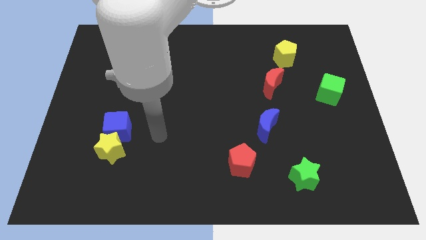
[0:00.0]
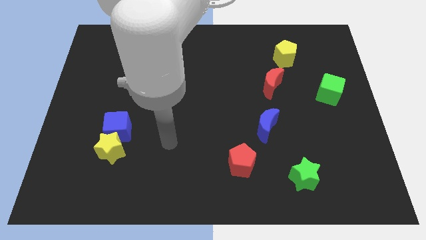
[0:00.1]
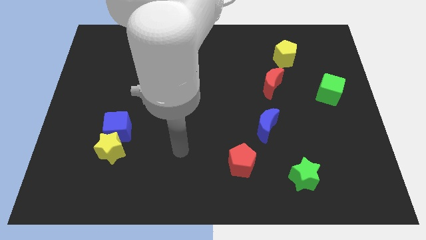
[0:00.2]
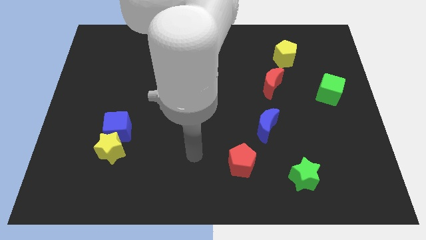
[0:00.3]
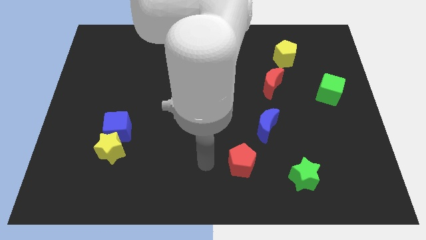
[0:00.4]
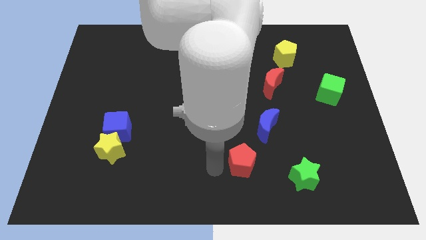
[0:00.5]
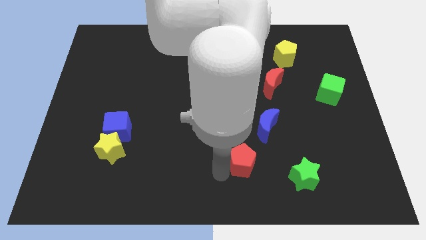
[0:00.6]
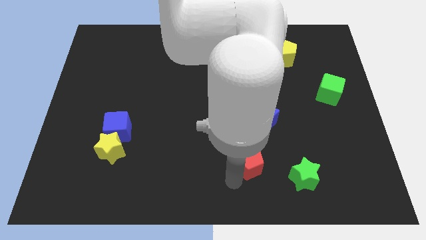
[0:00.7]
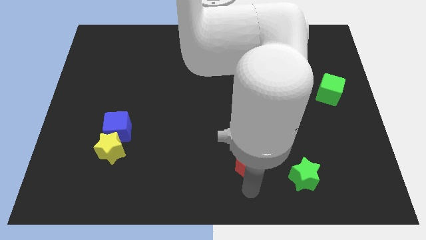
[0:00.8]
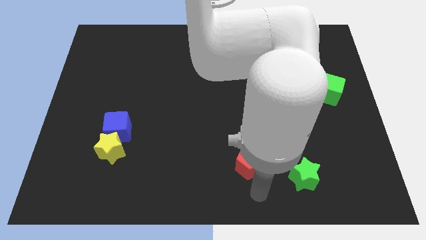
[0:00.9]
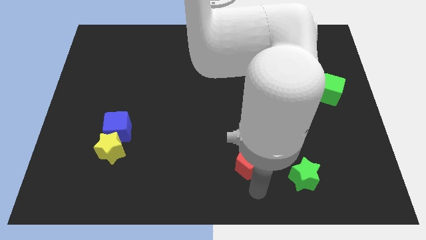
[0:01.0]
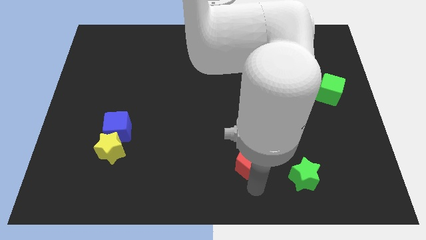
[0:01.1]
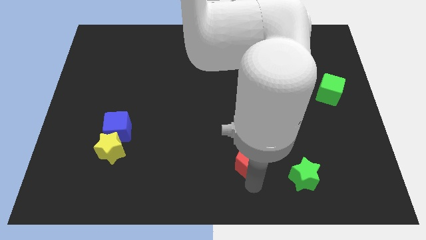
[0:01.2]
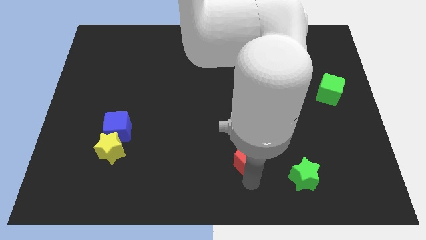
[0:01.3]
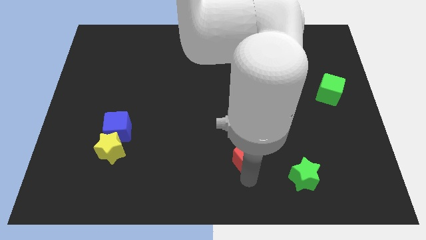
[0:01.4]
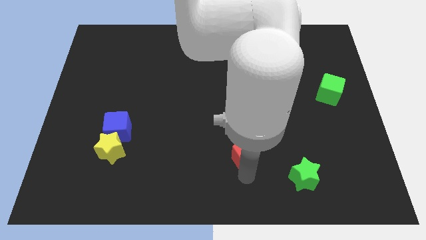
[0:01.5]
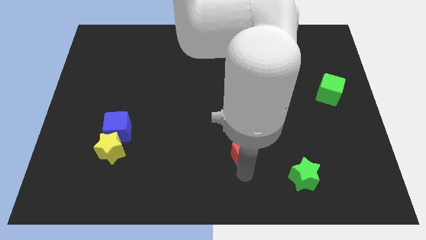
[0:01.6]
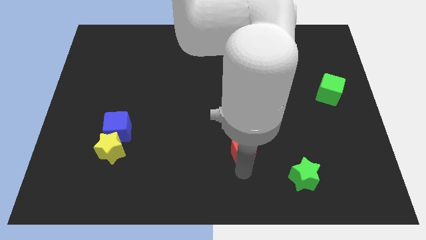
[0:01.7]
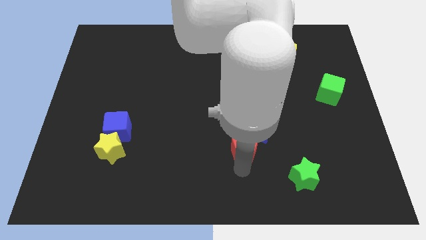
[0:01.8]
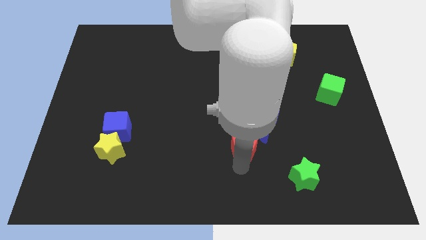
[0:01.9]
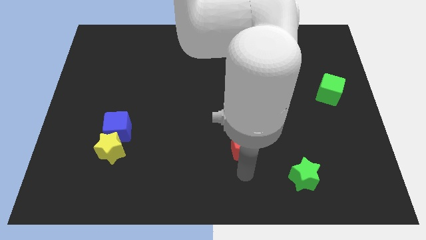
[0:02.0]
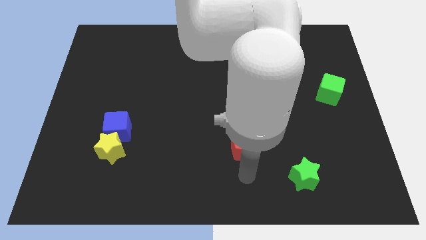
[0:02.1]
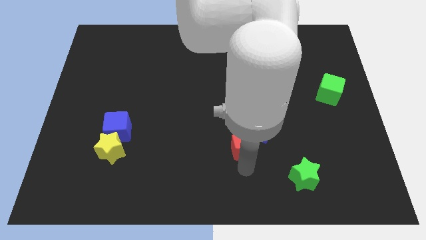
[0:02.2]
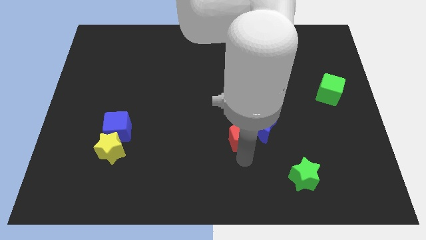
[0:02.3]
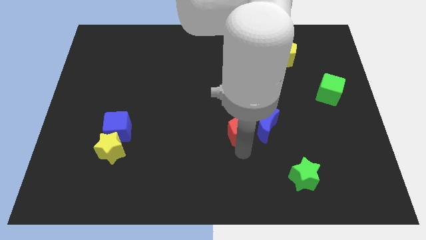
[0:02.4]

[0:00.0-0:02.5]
slide the red pentagon somewhat upwards

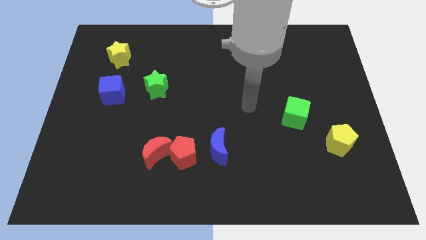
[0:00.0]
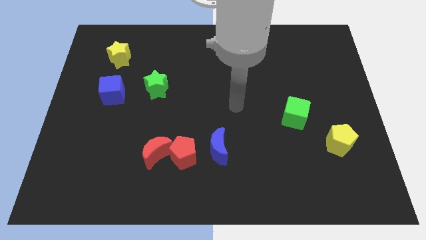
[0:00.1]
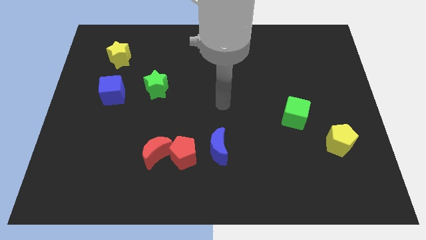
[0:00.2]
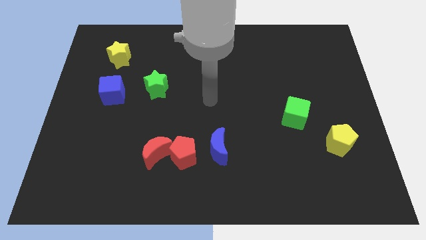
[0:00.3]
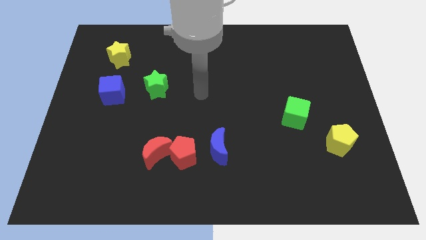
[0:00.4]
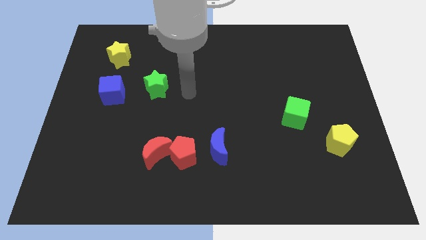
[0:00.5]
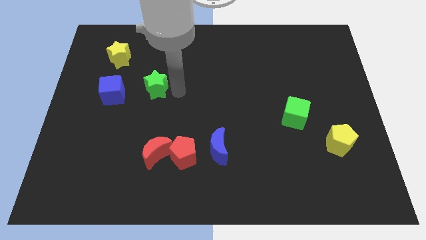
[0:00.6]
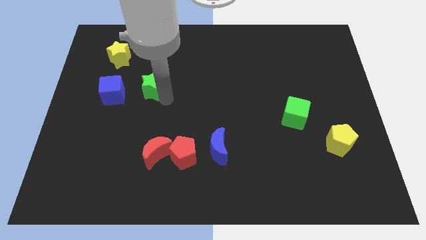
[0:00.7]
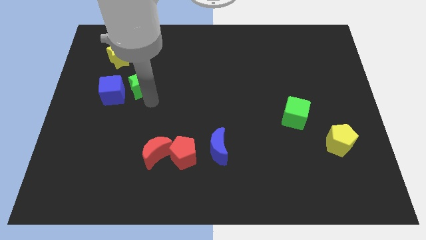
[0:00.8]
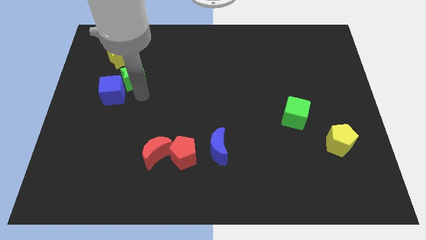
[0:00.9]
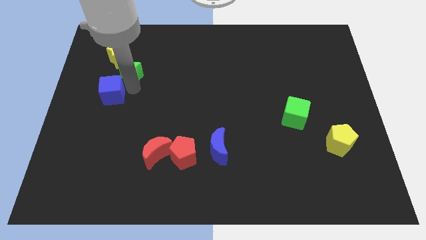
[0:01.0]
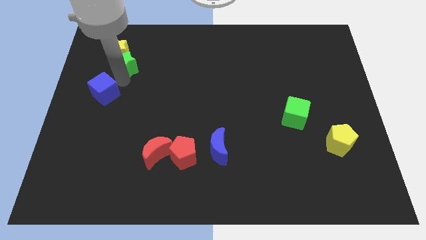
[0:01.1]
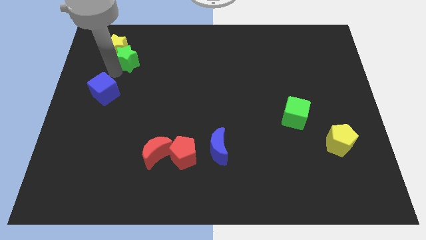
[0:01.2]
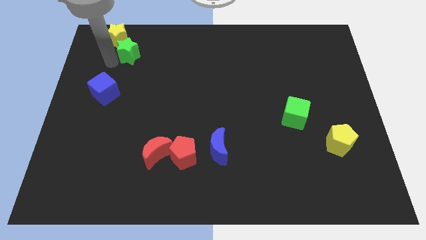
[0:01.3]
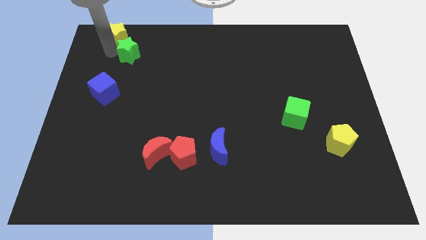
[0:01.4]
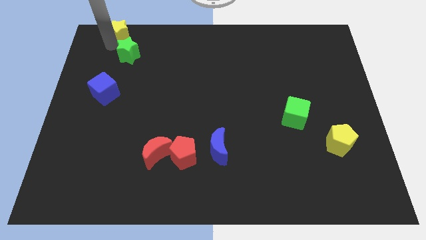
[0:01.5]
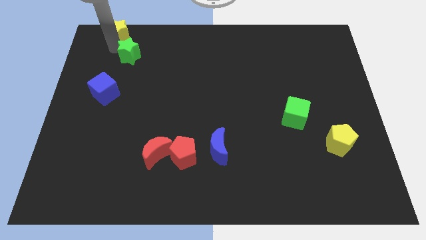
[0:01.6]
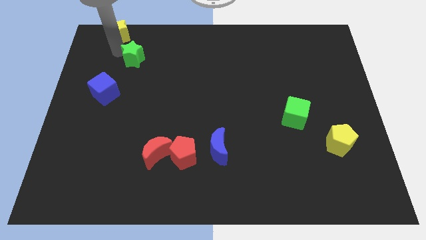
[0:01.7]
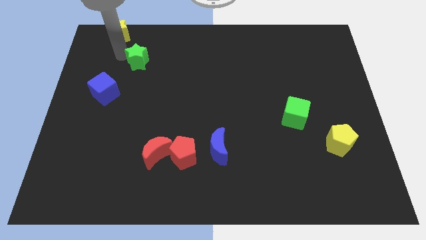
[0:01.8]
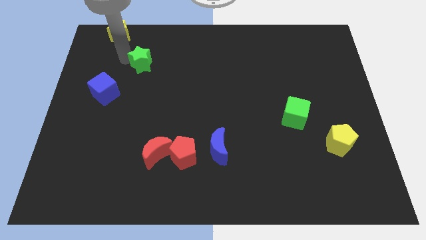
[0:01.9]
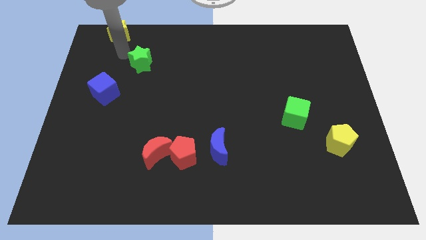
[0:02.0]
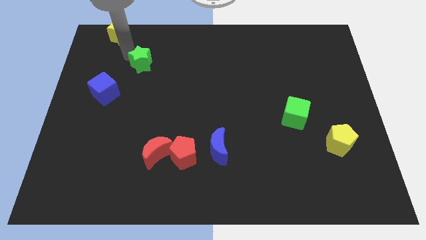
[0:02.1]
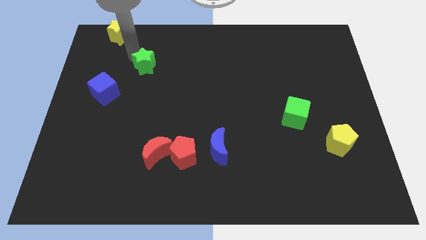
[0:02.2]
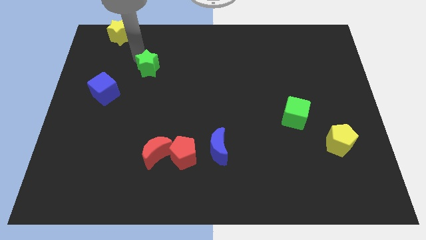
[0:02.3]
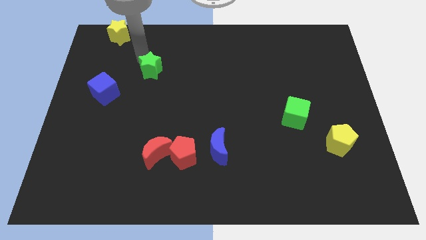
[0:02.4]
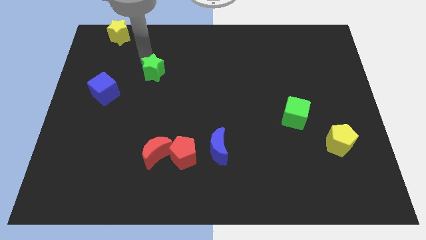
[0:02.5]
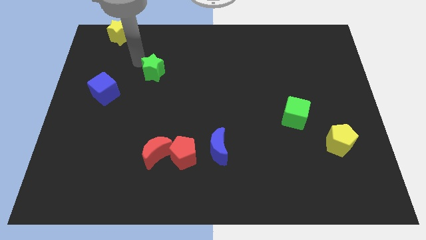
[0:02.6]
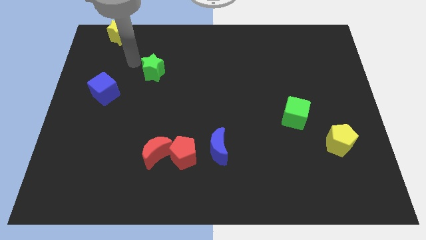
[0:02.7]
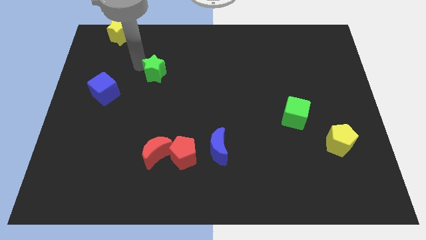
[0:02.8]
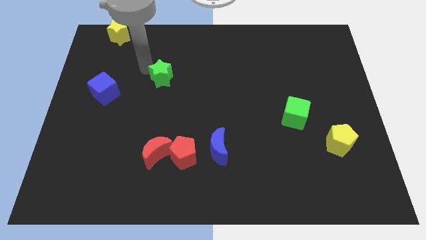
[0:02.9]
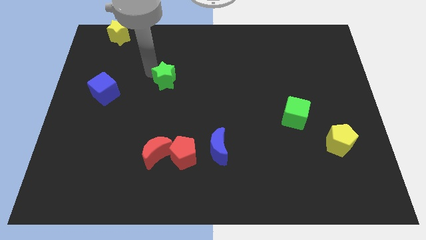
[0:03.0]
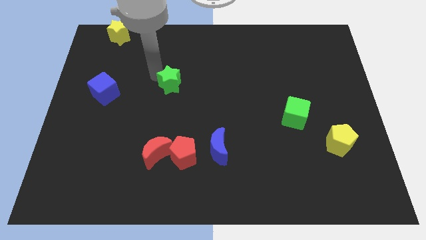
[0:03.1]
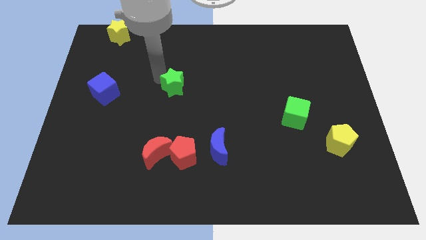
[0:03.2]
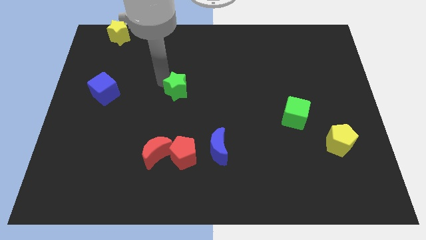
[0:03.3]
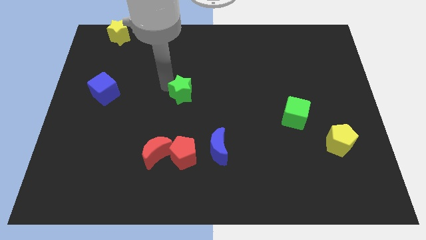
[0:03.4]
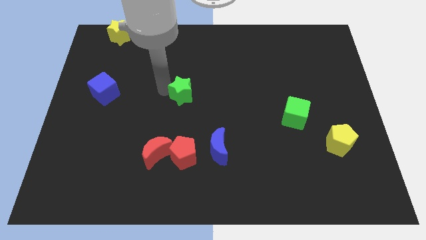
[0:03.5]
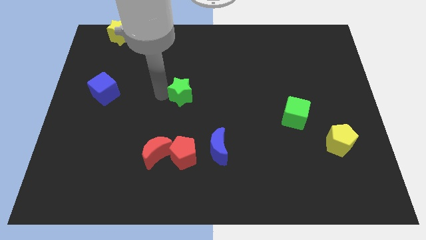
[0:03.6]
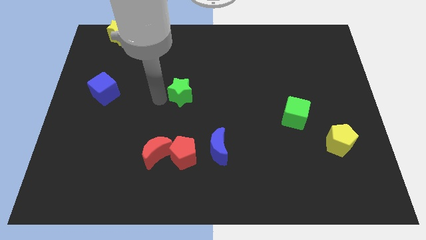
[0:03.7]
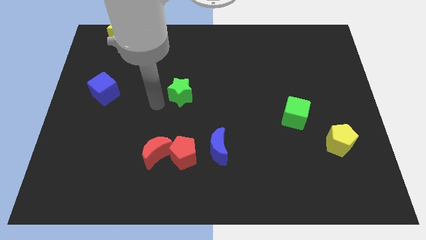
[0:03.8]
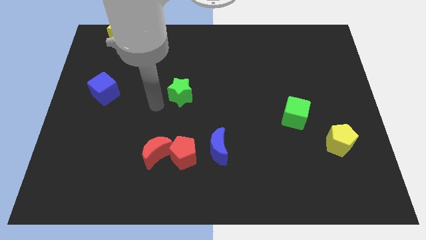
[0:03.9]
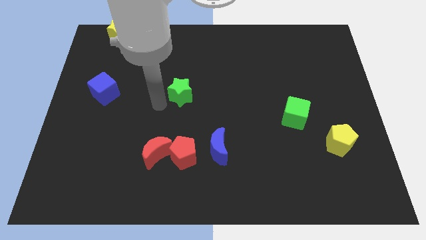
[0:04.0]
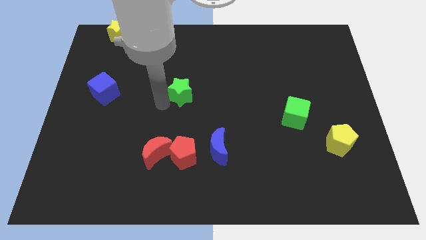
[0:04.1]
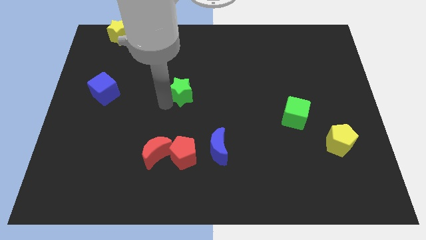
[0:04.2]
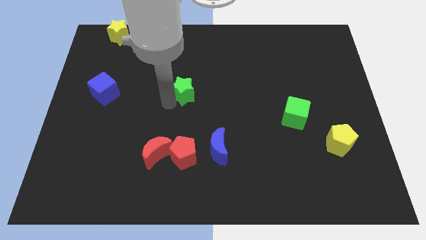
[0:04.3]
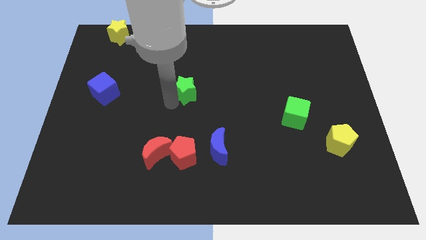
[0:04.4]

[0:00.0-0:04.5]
move the green star to the right slightly

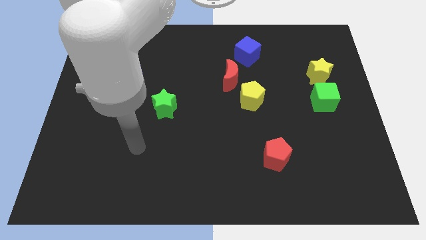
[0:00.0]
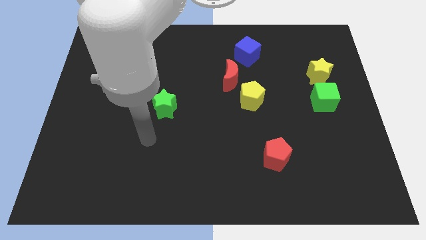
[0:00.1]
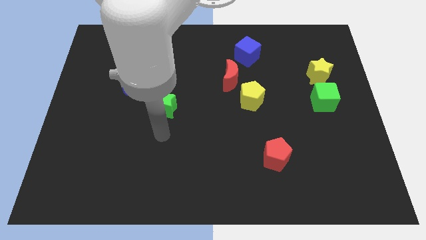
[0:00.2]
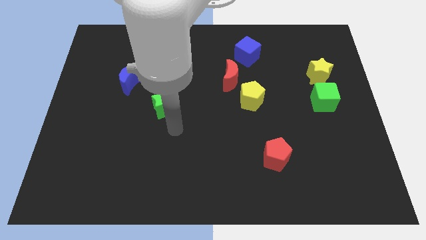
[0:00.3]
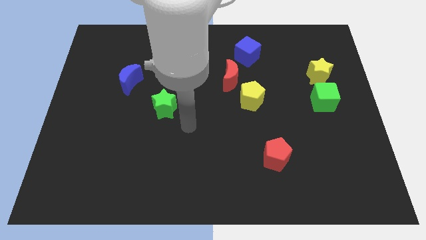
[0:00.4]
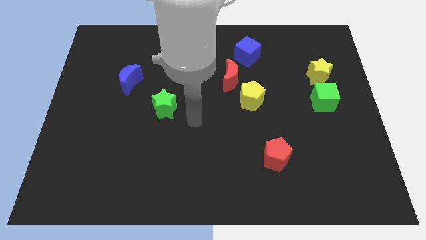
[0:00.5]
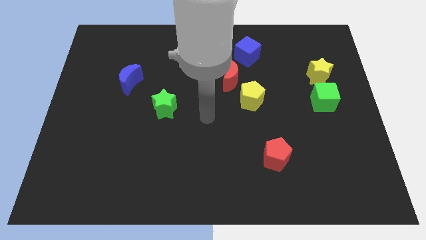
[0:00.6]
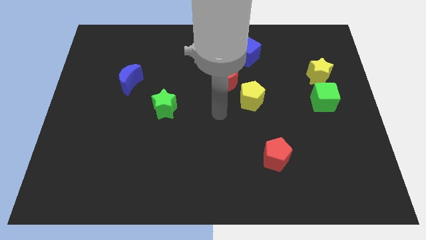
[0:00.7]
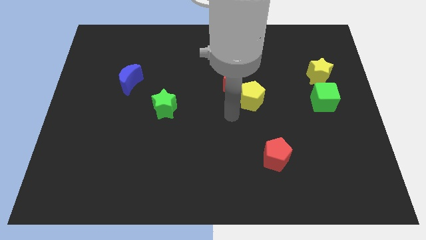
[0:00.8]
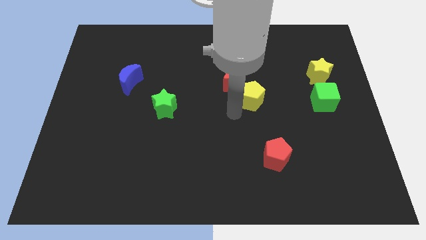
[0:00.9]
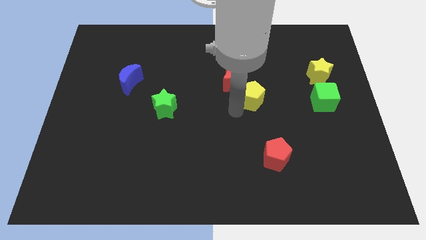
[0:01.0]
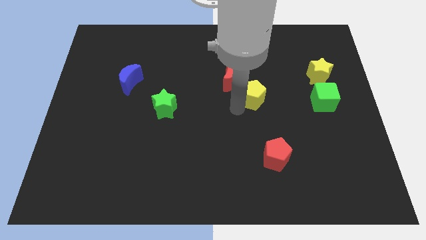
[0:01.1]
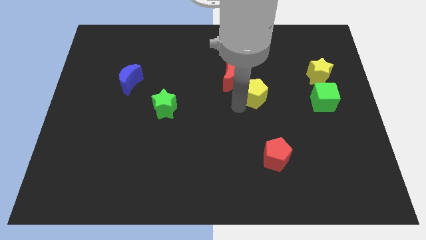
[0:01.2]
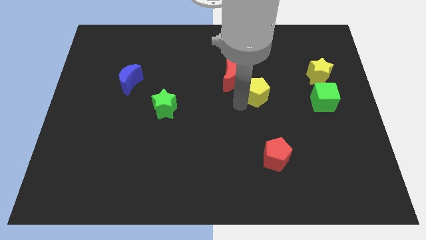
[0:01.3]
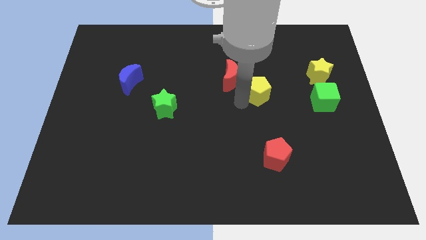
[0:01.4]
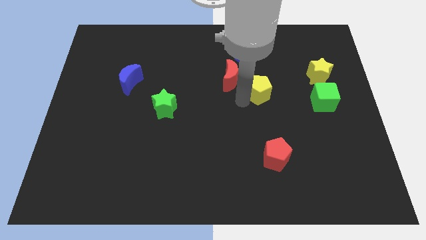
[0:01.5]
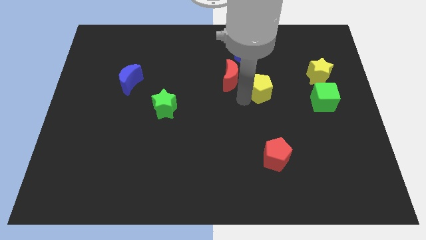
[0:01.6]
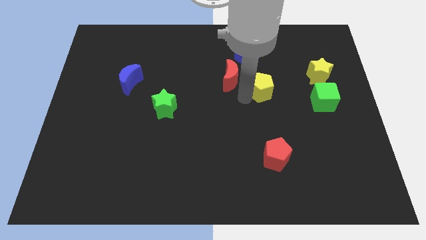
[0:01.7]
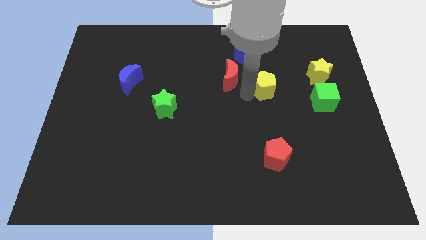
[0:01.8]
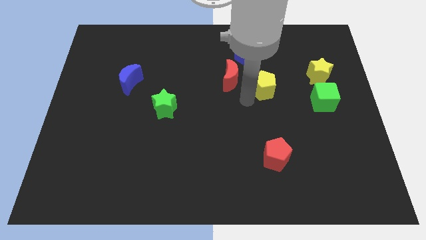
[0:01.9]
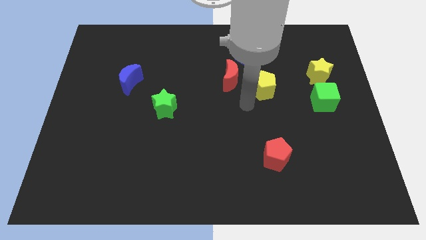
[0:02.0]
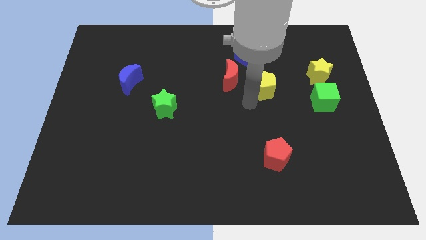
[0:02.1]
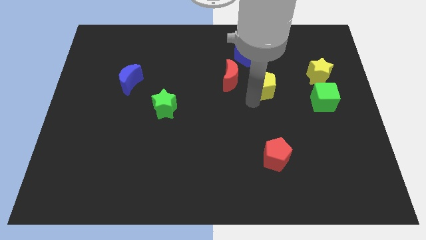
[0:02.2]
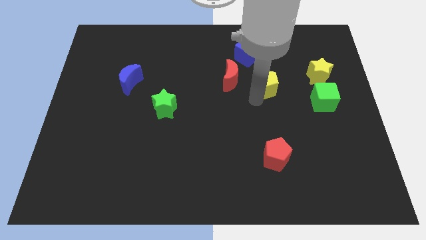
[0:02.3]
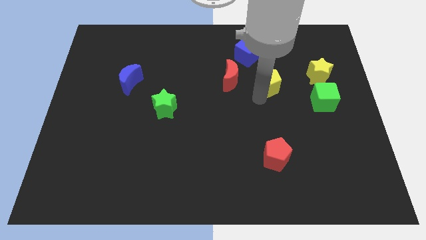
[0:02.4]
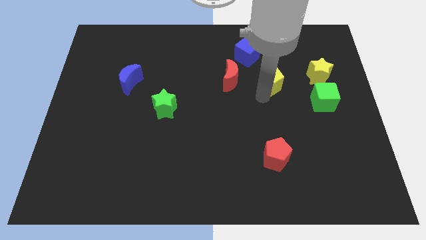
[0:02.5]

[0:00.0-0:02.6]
move the yellow pentagon a little diagonally upwards and to the right
